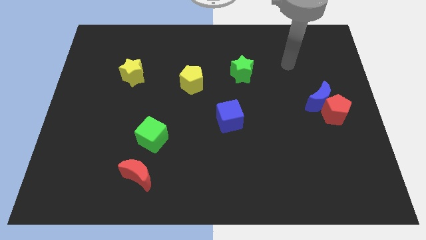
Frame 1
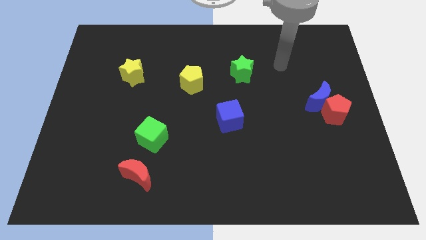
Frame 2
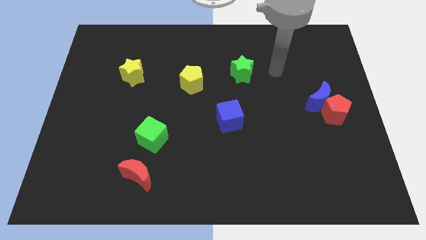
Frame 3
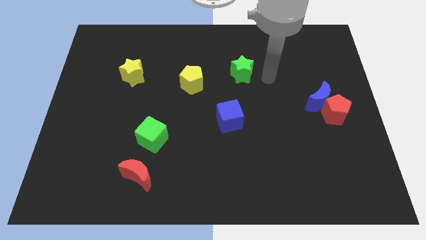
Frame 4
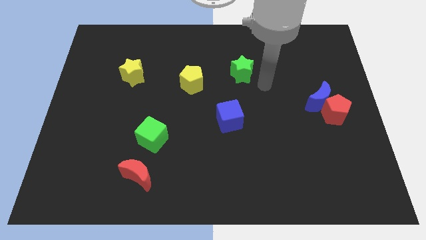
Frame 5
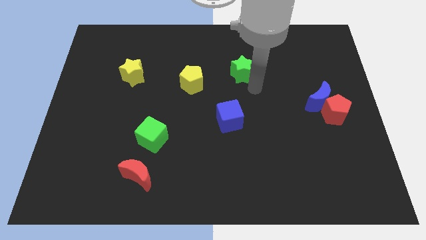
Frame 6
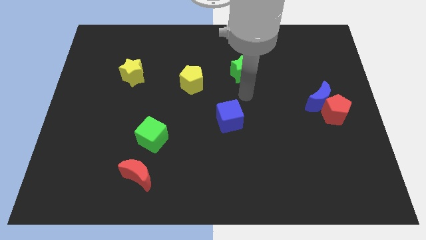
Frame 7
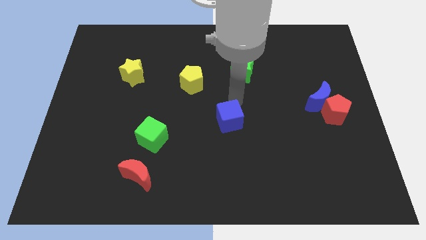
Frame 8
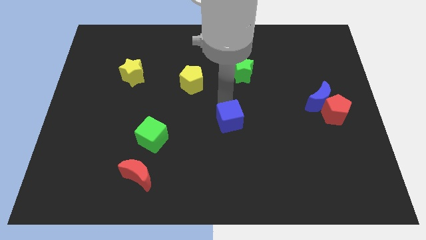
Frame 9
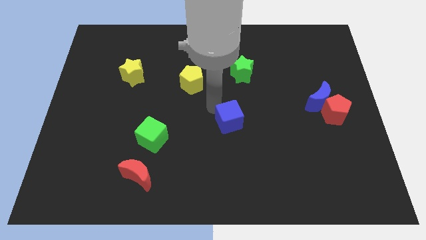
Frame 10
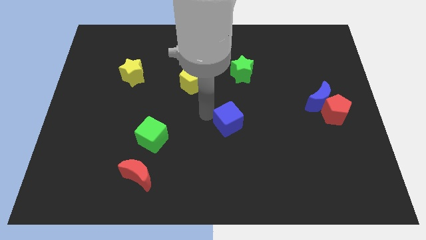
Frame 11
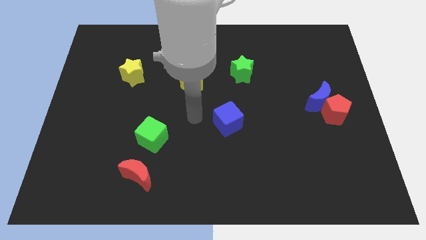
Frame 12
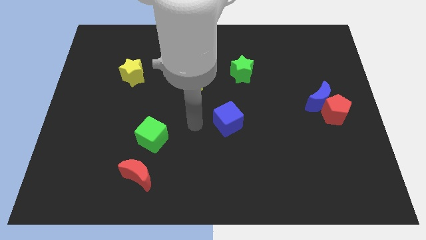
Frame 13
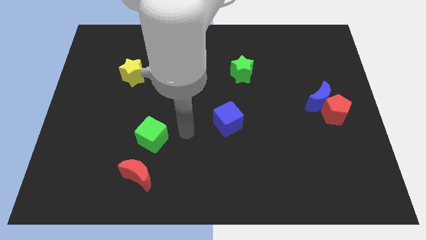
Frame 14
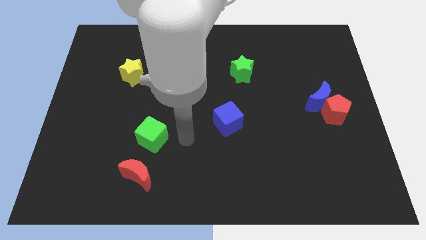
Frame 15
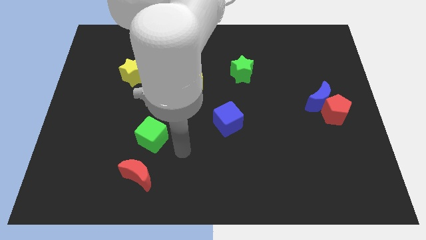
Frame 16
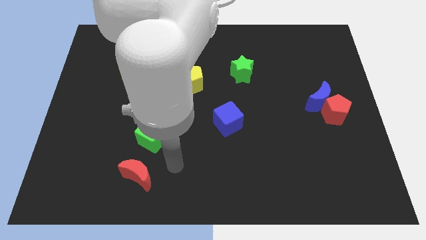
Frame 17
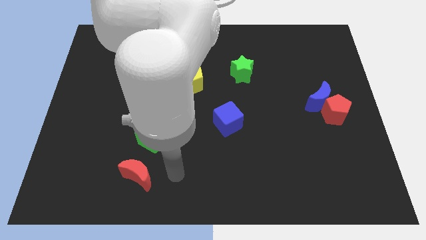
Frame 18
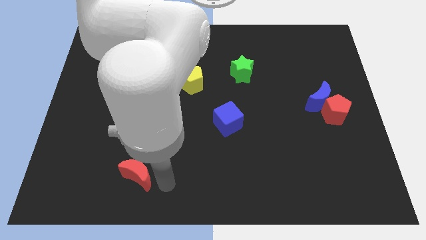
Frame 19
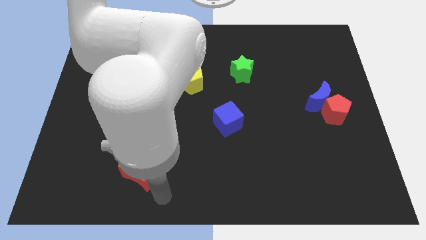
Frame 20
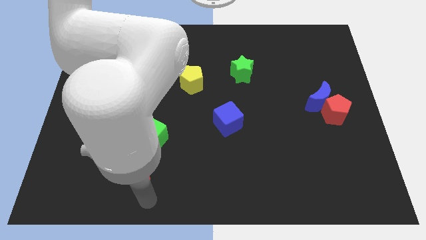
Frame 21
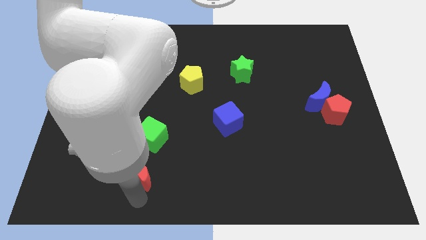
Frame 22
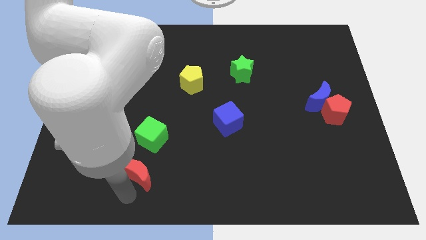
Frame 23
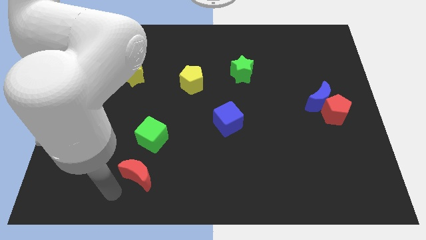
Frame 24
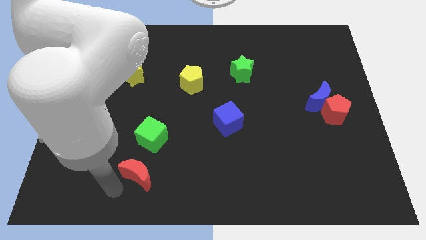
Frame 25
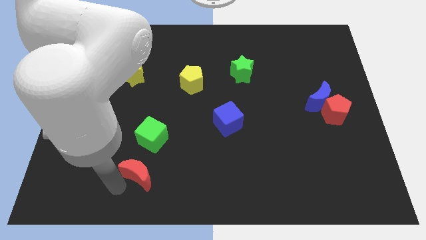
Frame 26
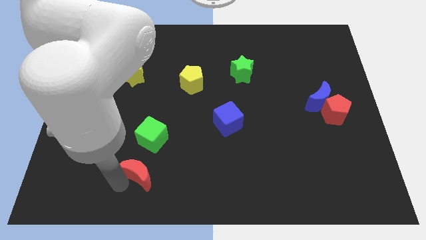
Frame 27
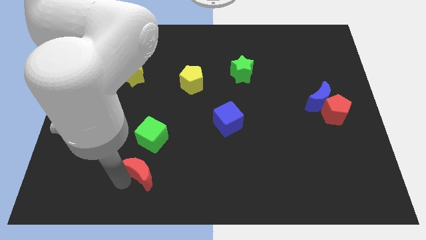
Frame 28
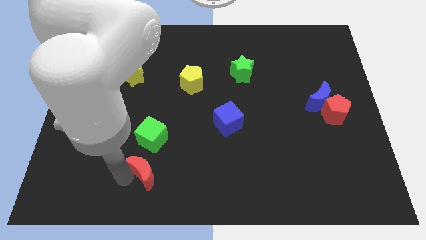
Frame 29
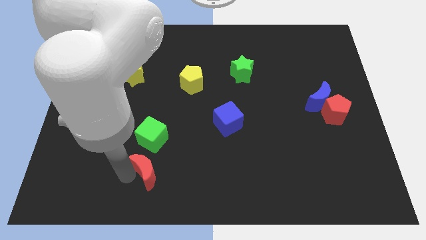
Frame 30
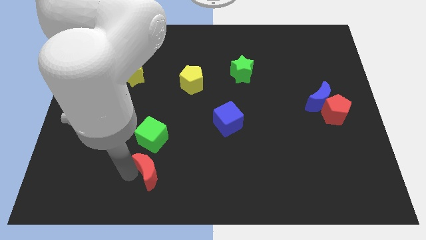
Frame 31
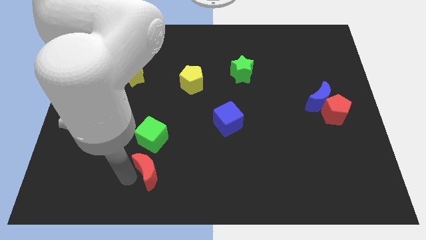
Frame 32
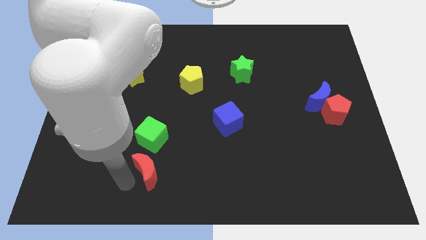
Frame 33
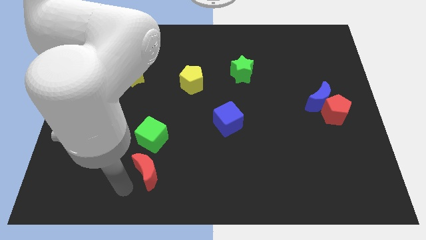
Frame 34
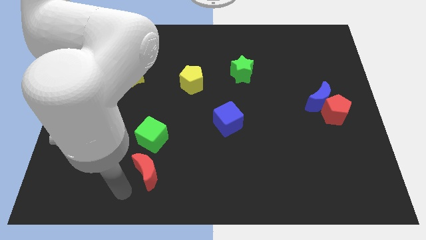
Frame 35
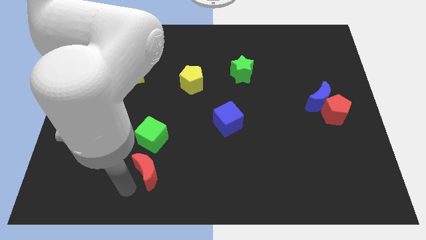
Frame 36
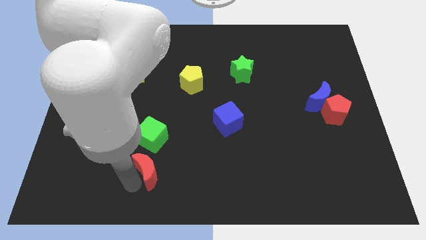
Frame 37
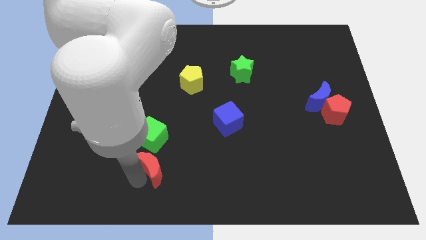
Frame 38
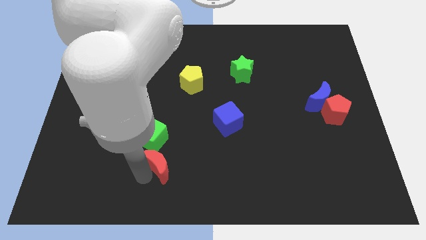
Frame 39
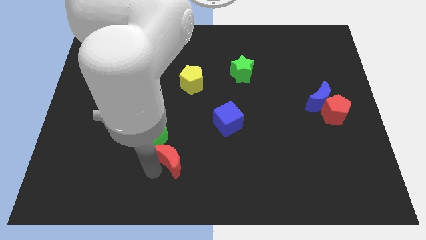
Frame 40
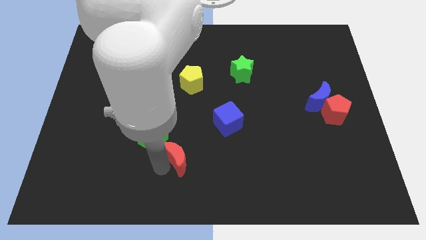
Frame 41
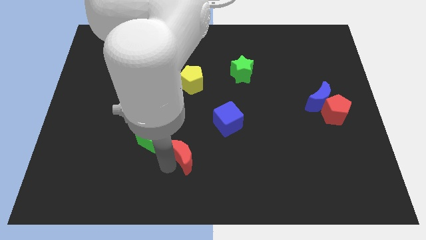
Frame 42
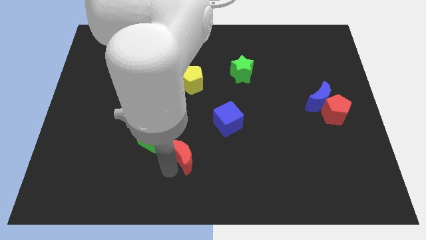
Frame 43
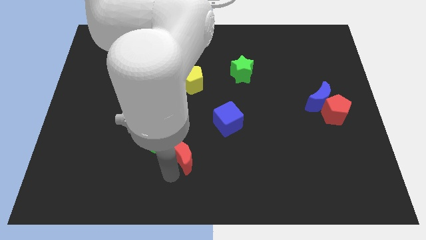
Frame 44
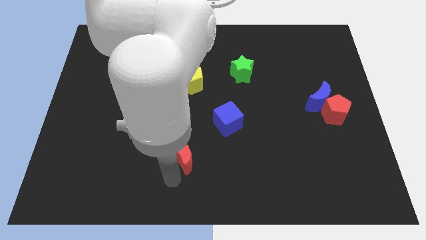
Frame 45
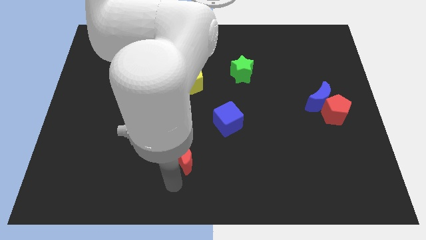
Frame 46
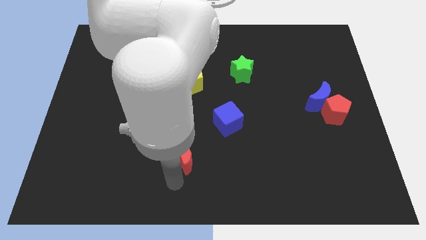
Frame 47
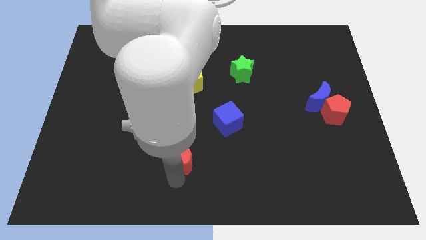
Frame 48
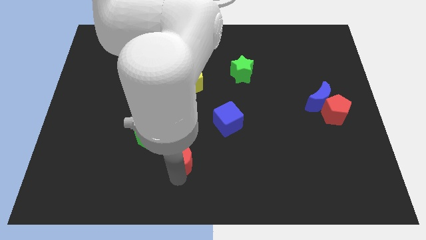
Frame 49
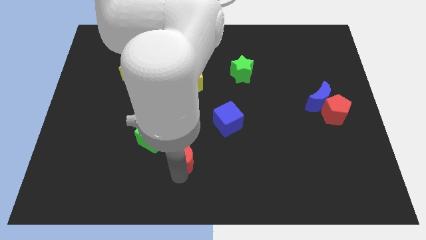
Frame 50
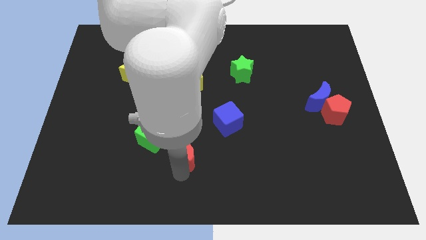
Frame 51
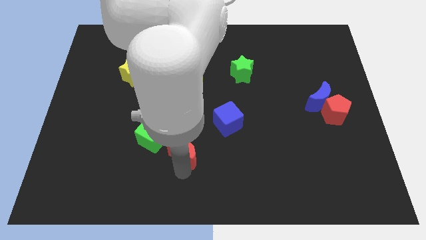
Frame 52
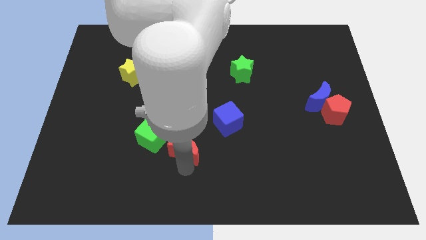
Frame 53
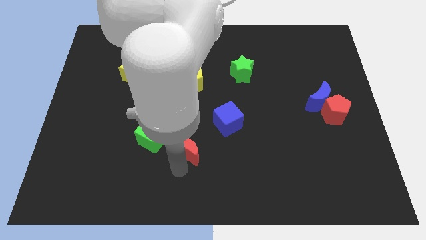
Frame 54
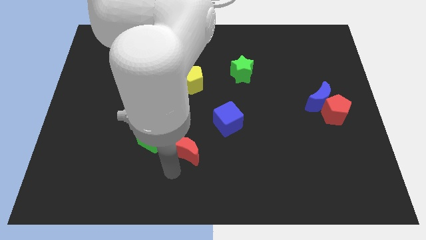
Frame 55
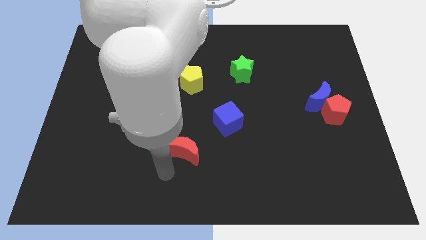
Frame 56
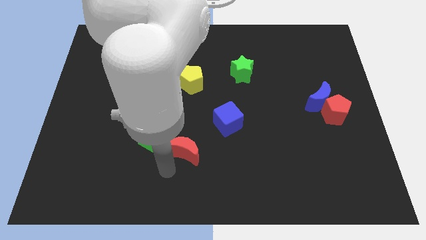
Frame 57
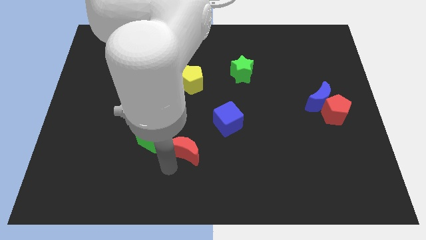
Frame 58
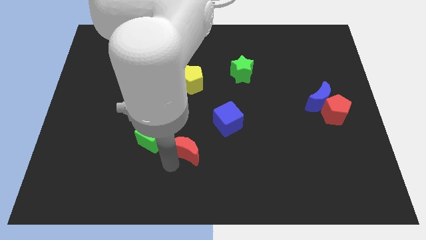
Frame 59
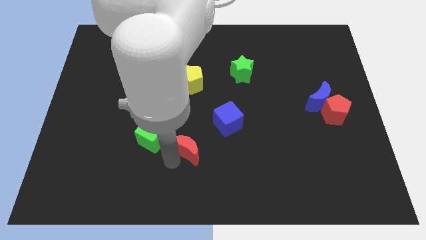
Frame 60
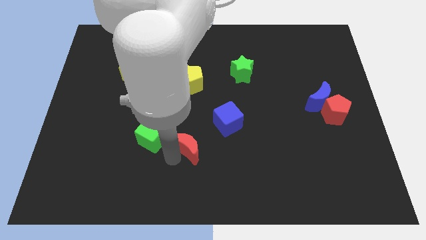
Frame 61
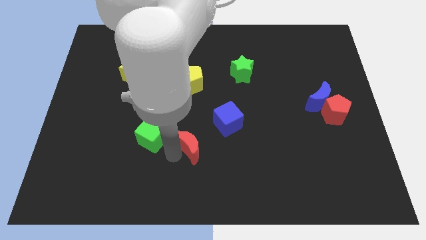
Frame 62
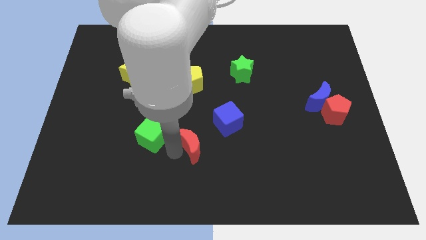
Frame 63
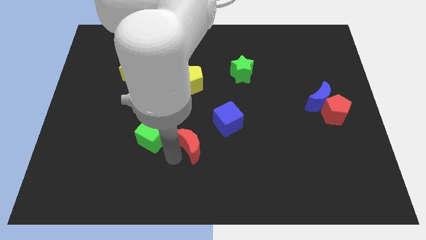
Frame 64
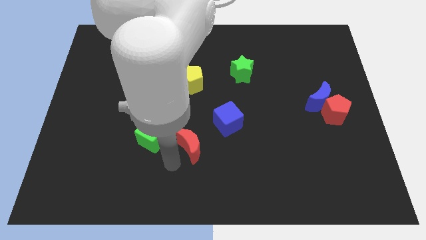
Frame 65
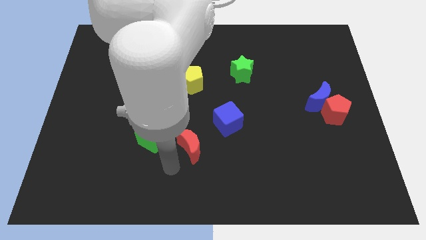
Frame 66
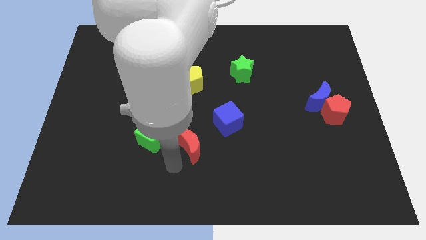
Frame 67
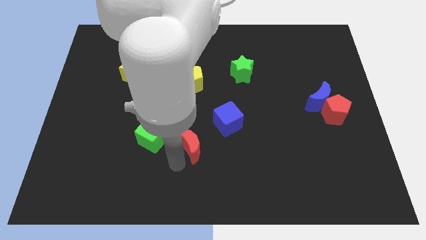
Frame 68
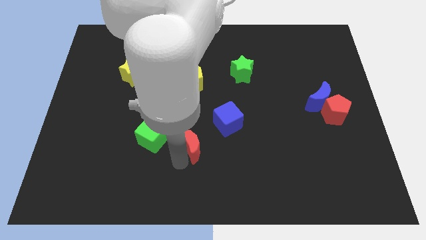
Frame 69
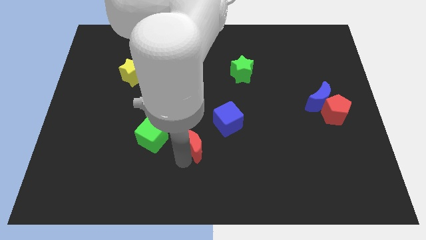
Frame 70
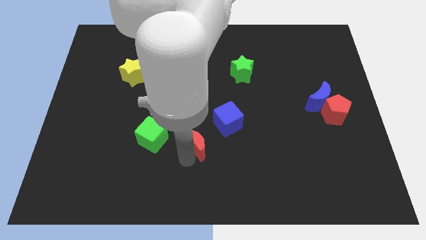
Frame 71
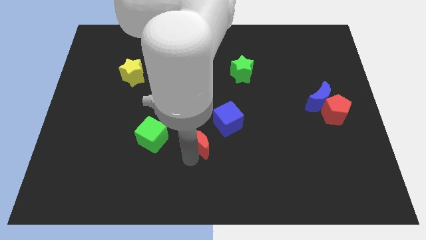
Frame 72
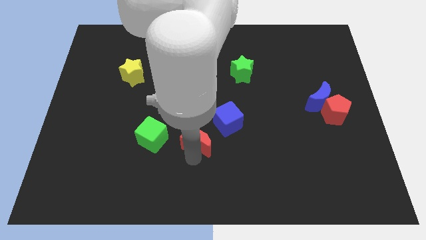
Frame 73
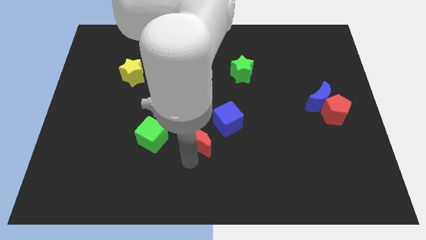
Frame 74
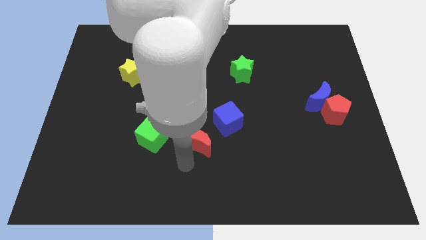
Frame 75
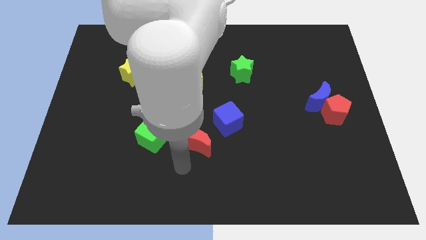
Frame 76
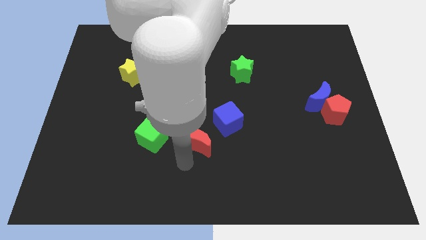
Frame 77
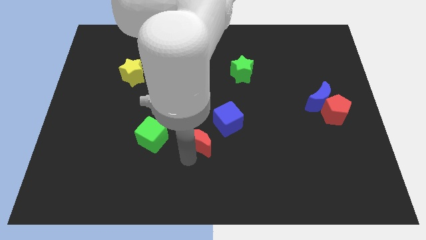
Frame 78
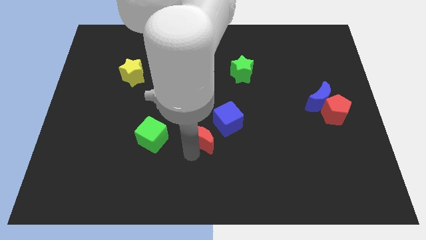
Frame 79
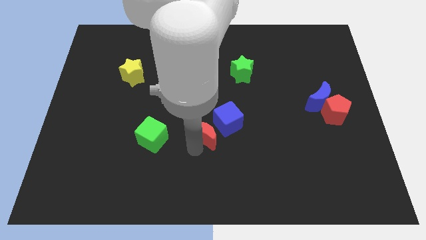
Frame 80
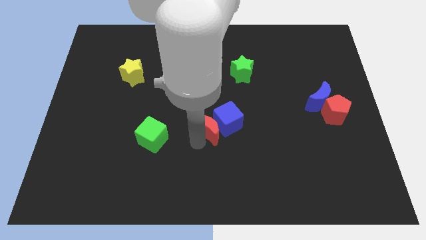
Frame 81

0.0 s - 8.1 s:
slide the red moon next to the blue cube
